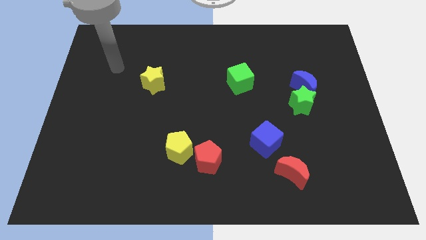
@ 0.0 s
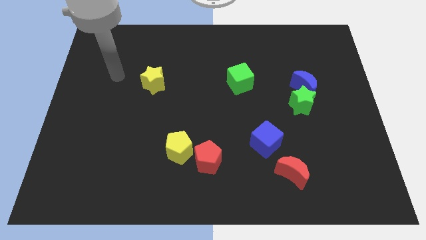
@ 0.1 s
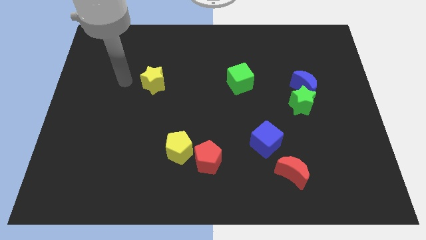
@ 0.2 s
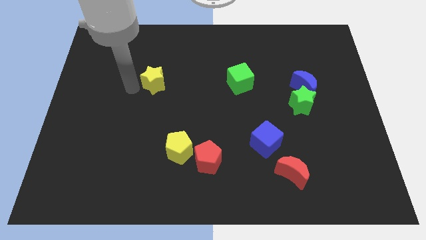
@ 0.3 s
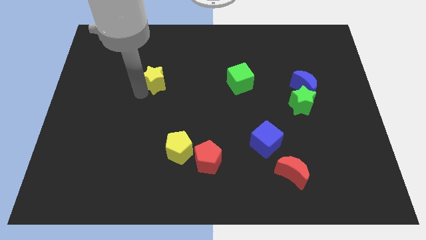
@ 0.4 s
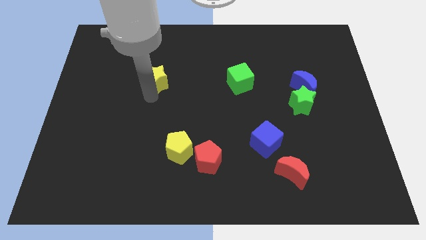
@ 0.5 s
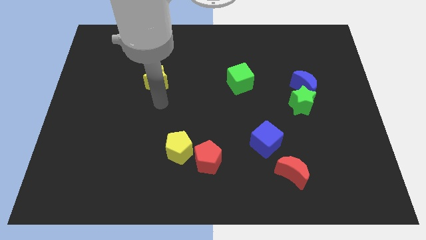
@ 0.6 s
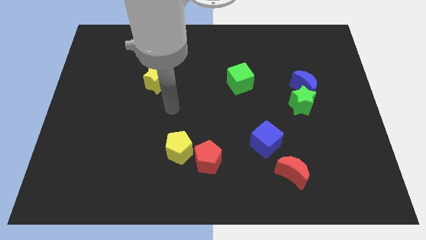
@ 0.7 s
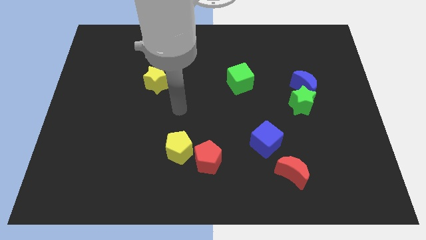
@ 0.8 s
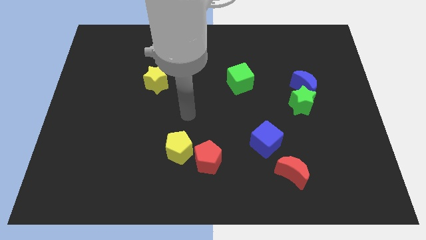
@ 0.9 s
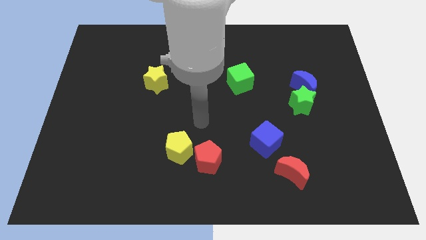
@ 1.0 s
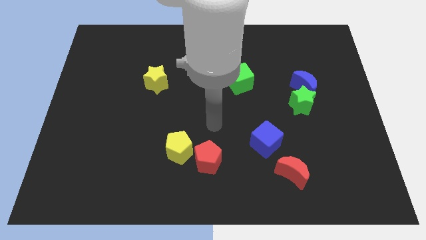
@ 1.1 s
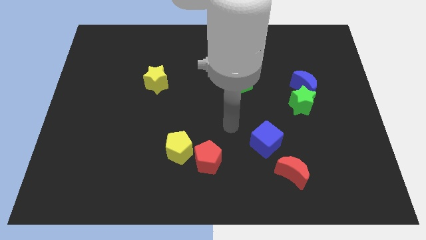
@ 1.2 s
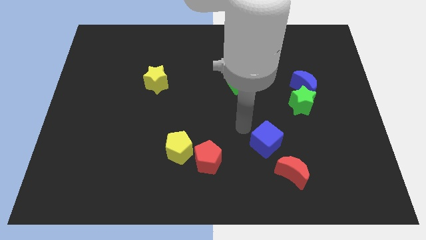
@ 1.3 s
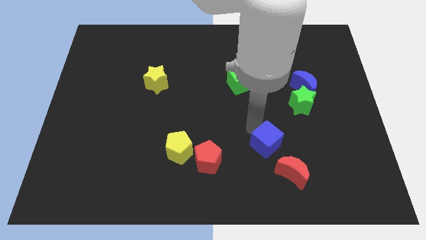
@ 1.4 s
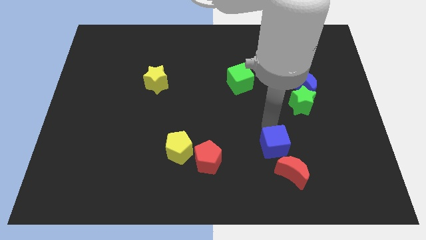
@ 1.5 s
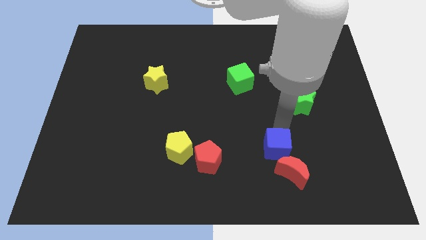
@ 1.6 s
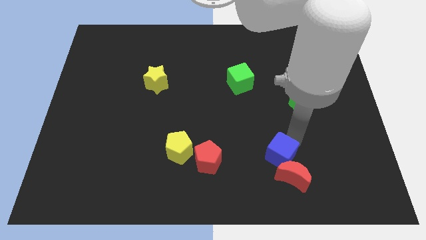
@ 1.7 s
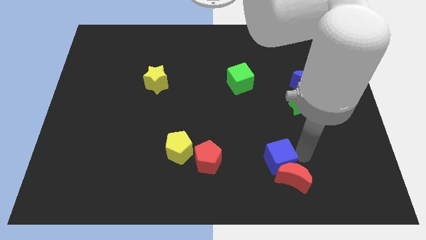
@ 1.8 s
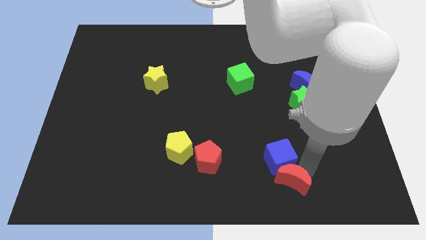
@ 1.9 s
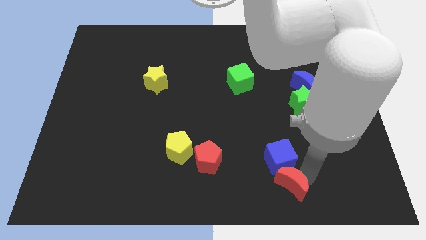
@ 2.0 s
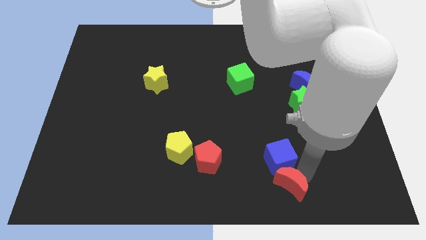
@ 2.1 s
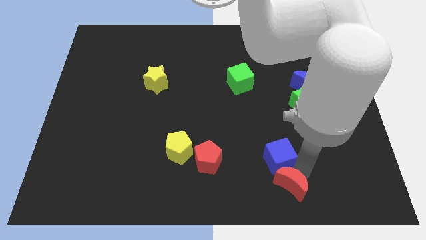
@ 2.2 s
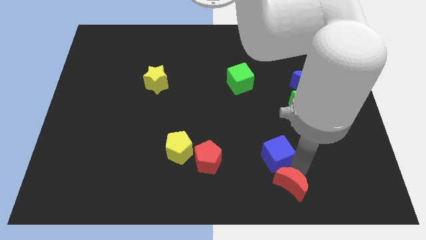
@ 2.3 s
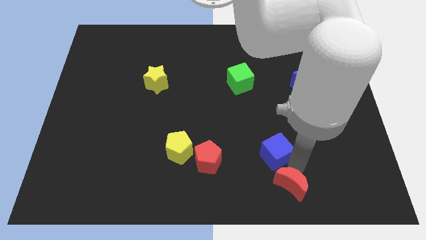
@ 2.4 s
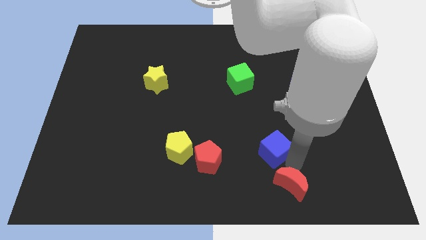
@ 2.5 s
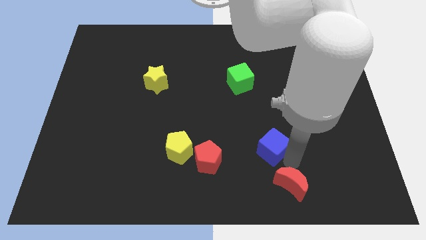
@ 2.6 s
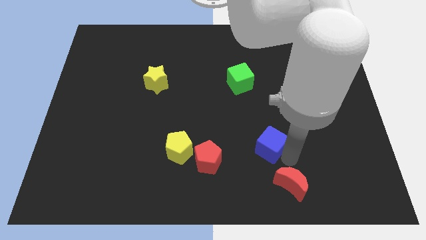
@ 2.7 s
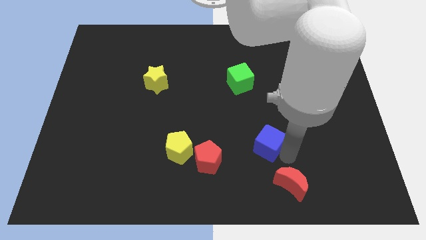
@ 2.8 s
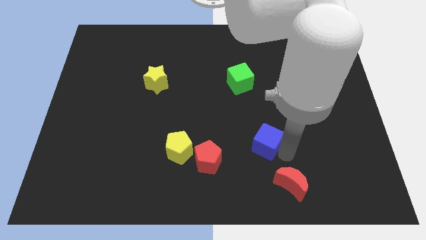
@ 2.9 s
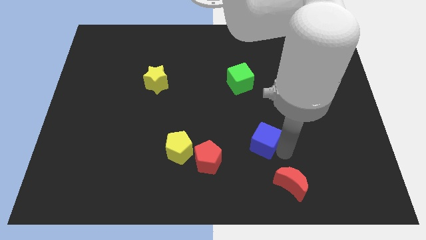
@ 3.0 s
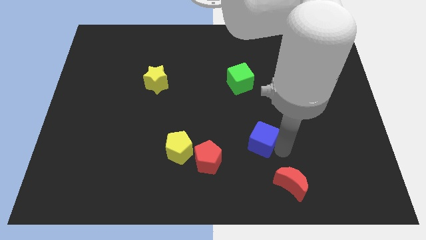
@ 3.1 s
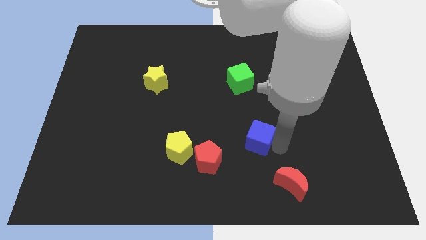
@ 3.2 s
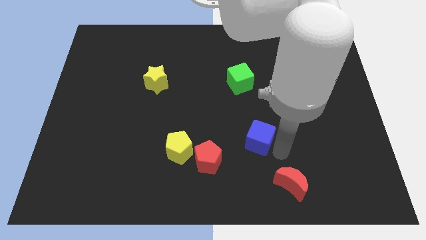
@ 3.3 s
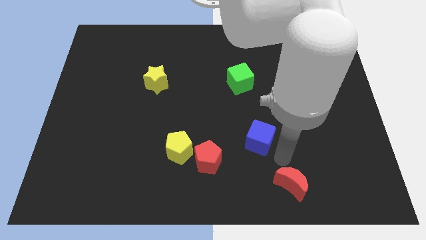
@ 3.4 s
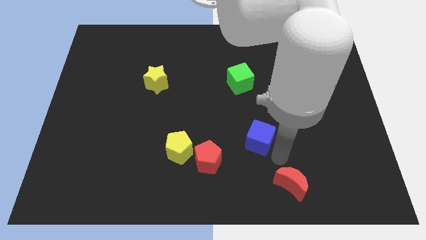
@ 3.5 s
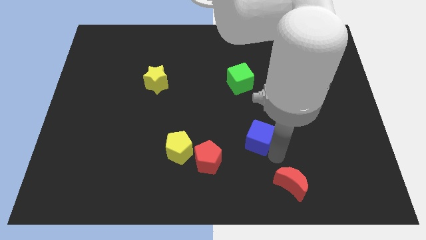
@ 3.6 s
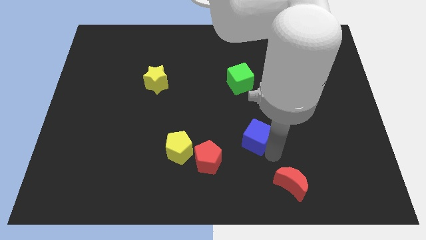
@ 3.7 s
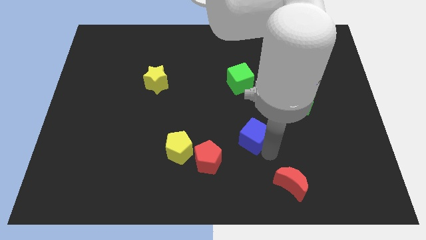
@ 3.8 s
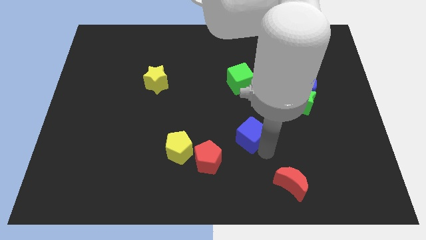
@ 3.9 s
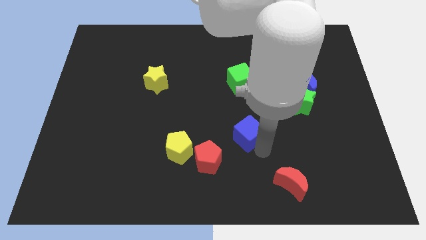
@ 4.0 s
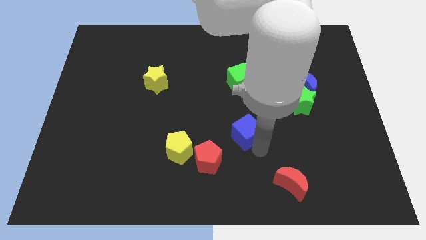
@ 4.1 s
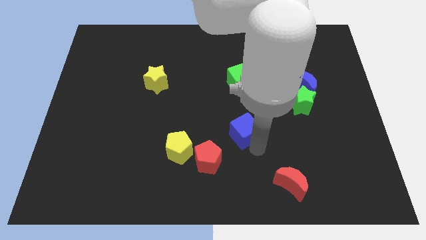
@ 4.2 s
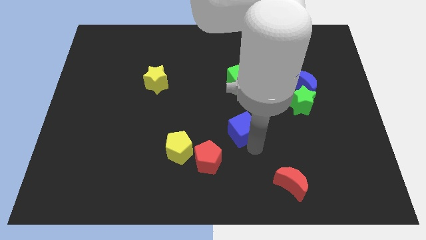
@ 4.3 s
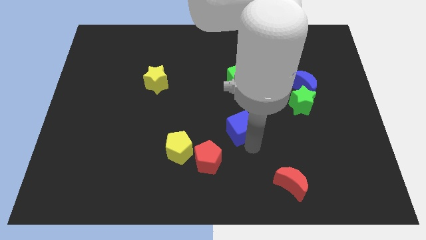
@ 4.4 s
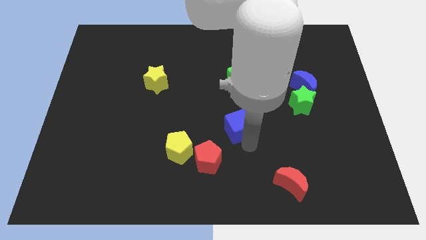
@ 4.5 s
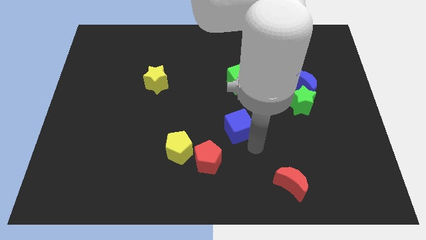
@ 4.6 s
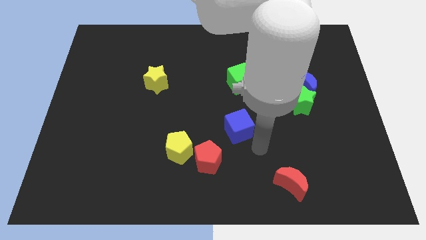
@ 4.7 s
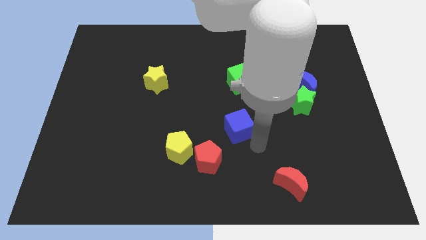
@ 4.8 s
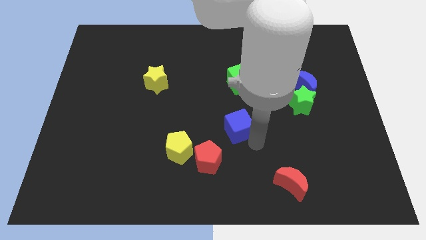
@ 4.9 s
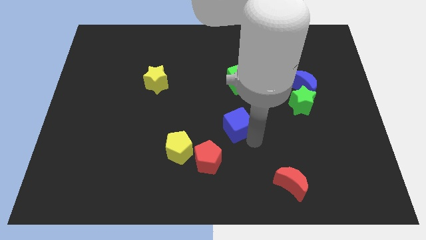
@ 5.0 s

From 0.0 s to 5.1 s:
move the blue cube a little bit upwards and then to the left

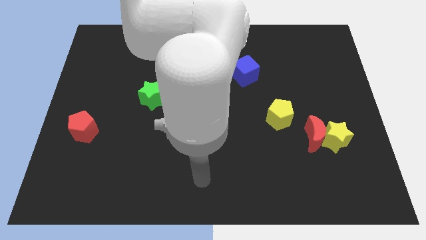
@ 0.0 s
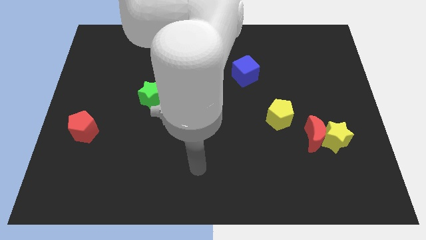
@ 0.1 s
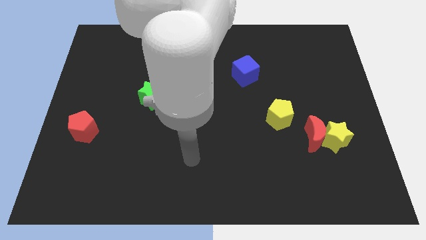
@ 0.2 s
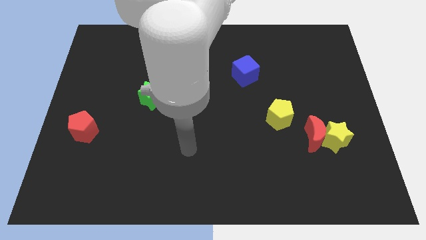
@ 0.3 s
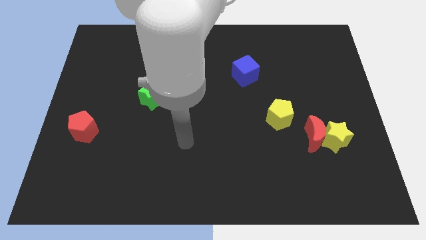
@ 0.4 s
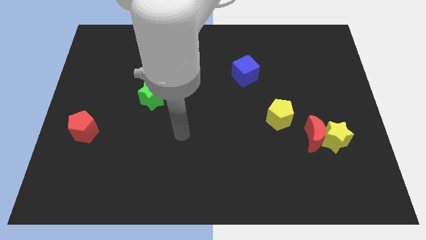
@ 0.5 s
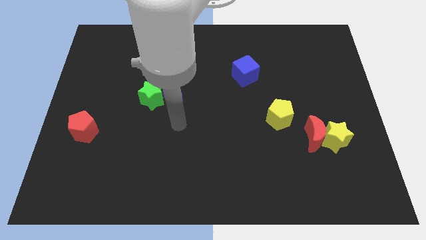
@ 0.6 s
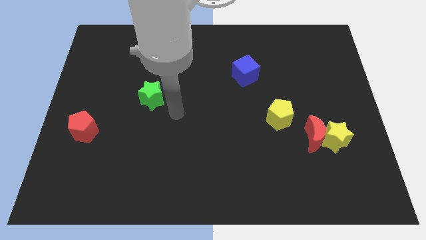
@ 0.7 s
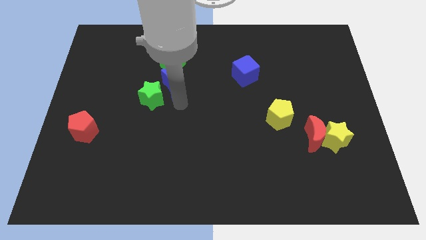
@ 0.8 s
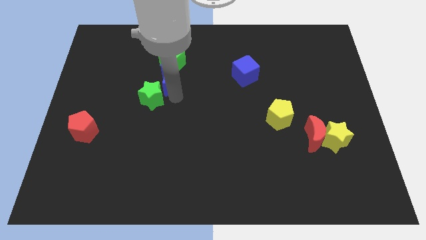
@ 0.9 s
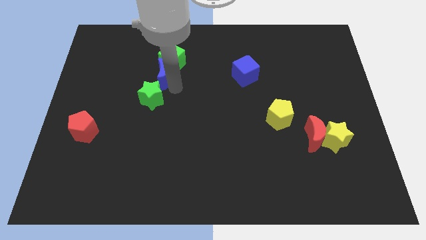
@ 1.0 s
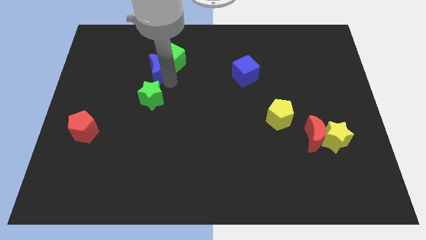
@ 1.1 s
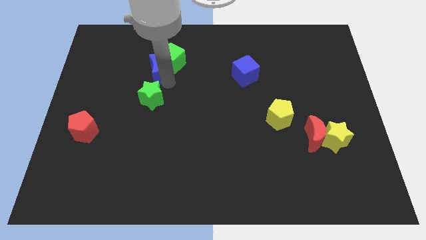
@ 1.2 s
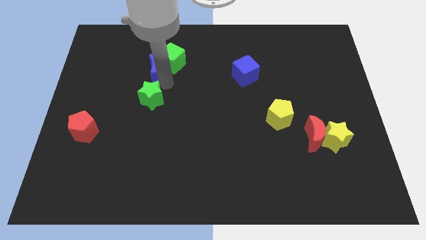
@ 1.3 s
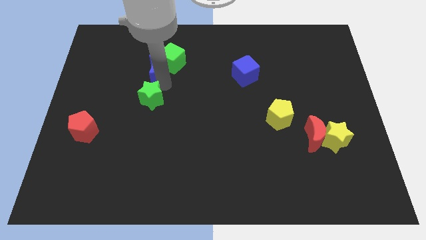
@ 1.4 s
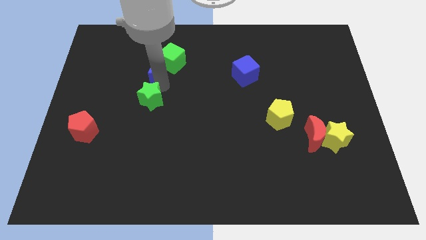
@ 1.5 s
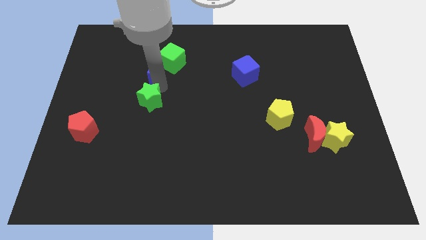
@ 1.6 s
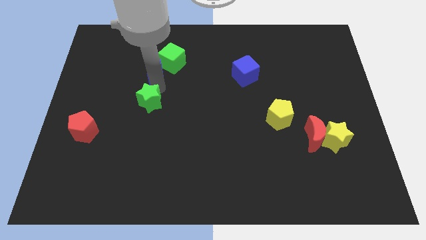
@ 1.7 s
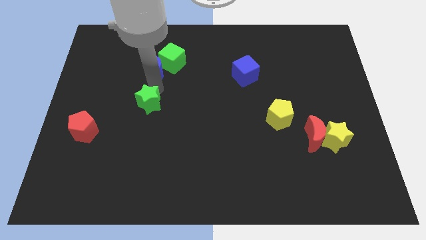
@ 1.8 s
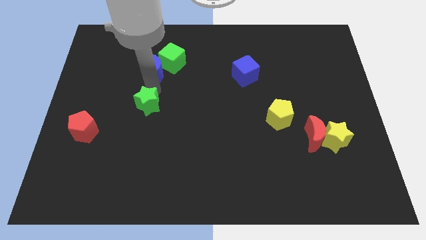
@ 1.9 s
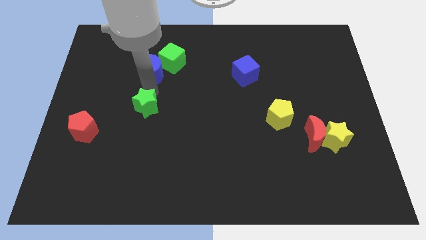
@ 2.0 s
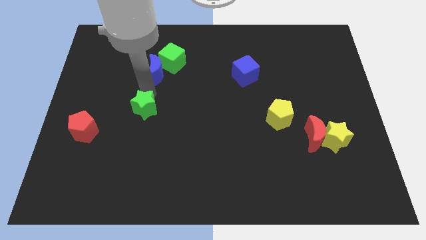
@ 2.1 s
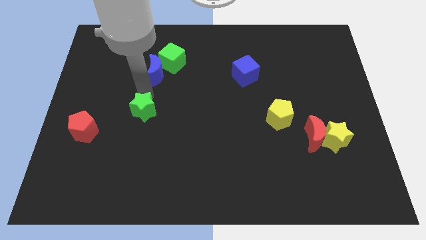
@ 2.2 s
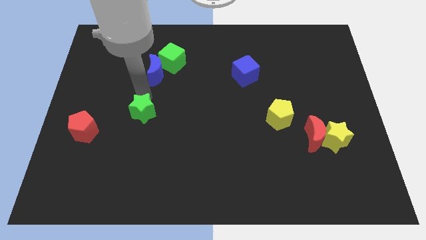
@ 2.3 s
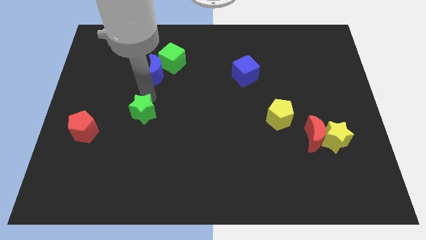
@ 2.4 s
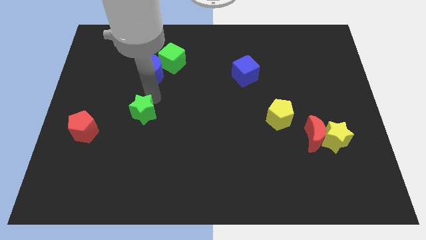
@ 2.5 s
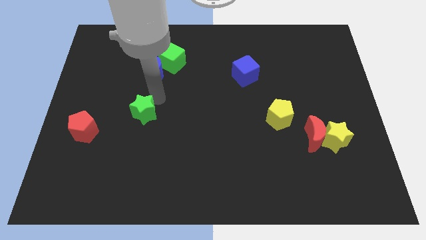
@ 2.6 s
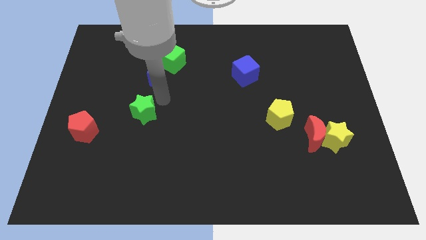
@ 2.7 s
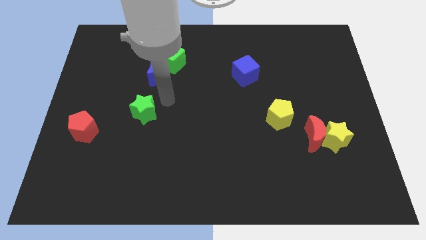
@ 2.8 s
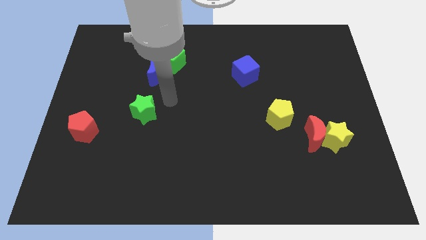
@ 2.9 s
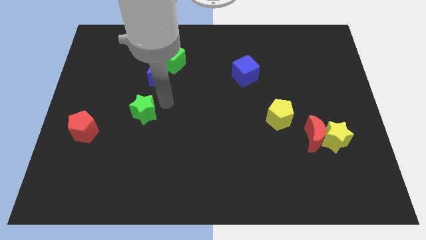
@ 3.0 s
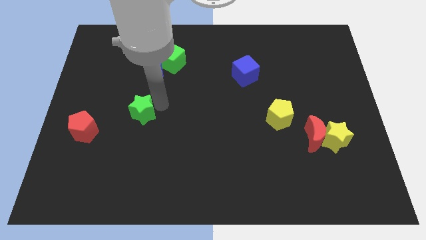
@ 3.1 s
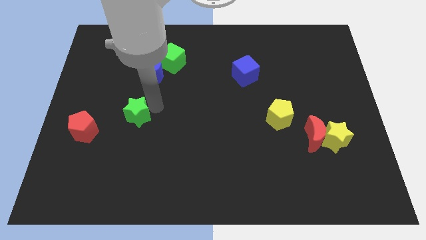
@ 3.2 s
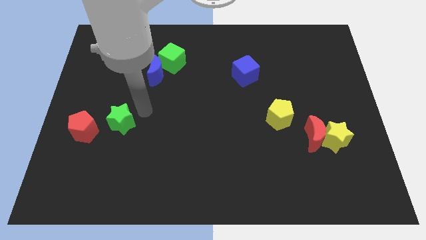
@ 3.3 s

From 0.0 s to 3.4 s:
push the green star downwards and to the left diagonally a bit
